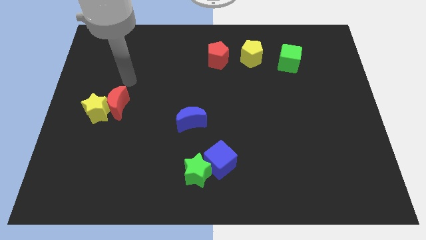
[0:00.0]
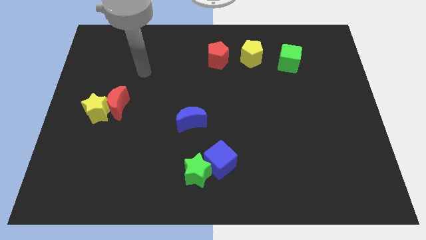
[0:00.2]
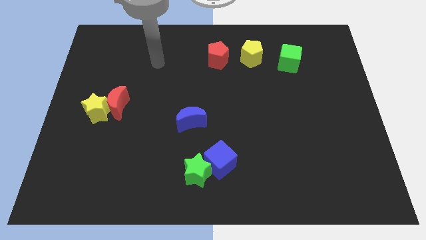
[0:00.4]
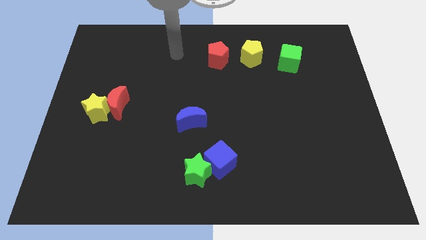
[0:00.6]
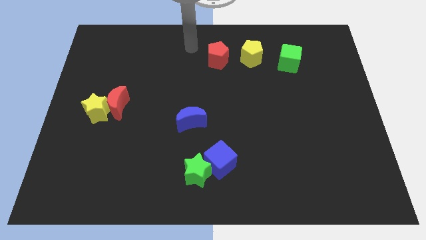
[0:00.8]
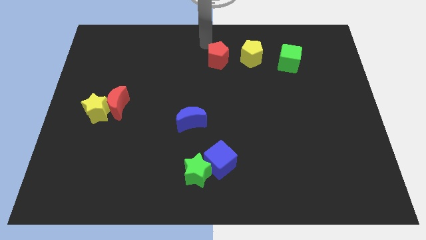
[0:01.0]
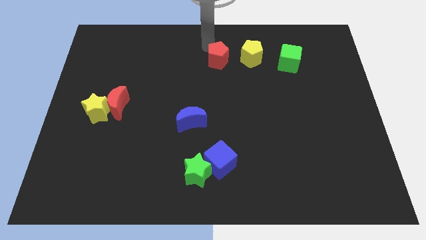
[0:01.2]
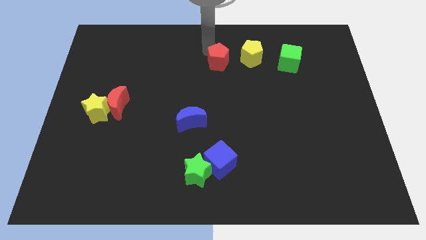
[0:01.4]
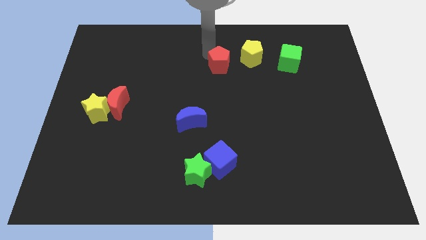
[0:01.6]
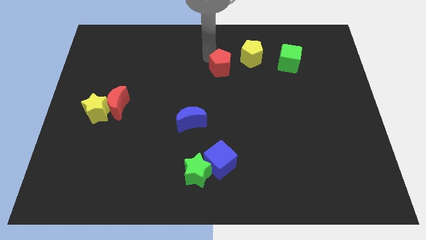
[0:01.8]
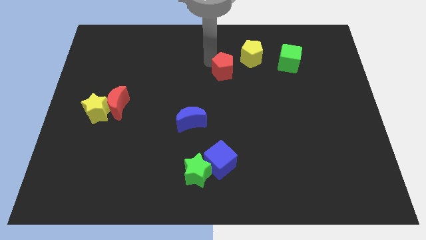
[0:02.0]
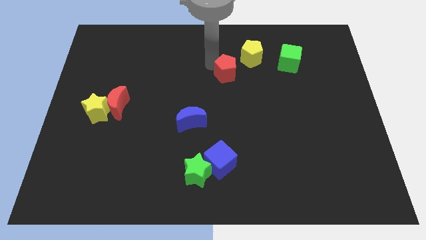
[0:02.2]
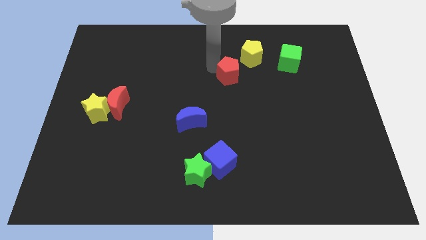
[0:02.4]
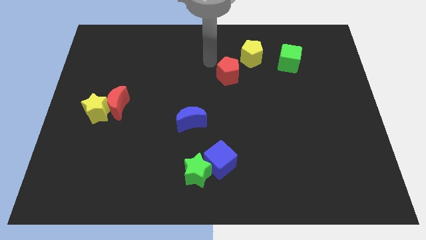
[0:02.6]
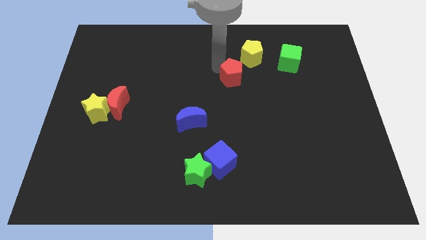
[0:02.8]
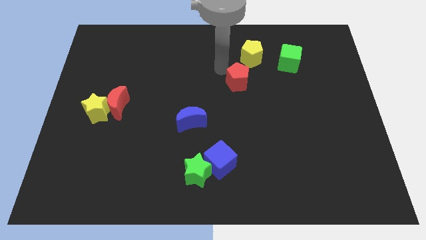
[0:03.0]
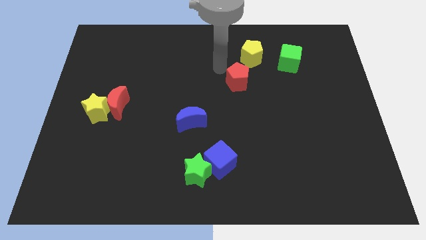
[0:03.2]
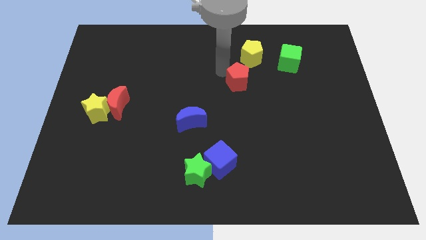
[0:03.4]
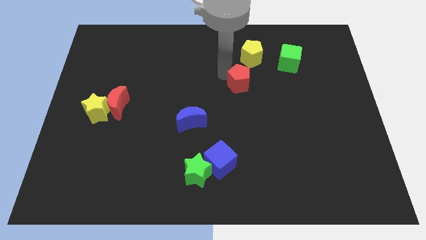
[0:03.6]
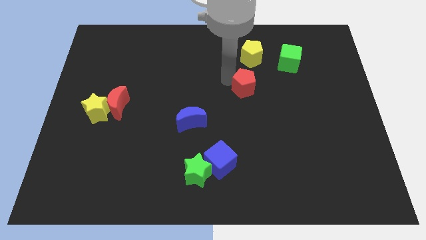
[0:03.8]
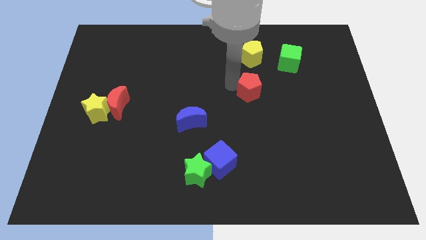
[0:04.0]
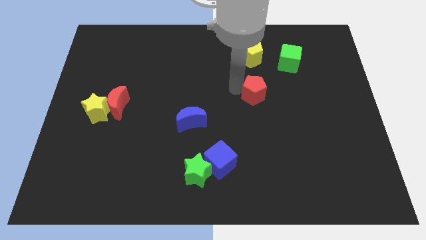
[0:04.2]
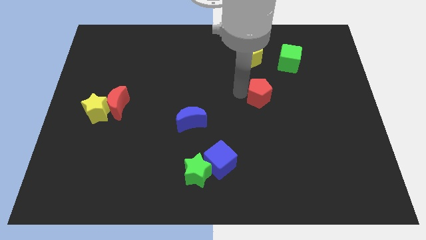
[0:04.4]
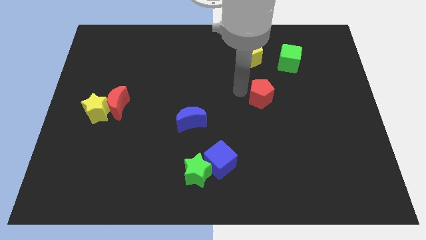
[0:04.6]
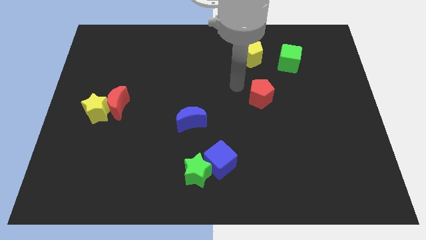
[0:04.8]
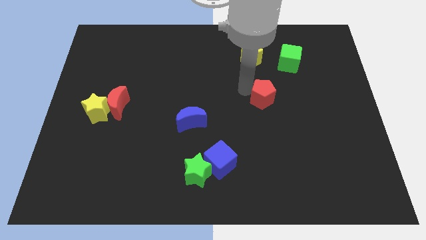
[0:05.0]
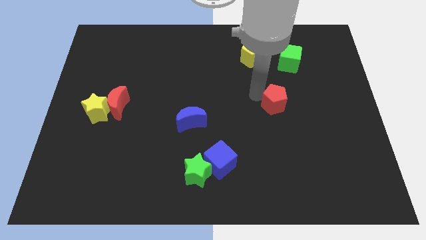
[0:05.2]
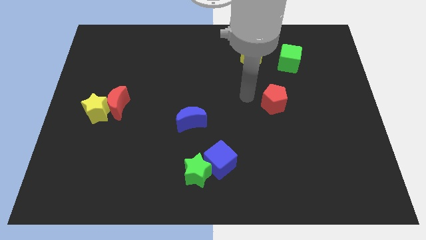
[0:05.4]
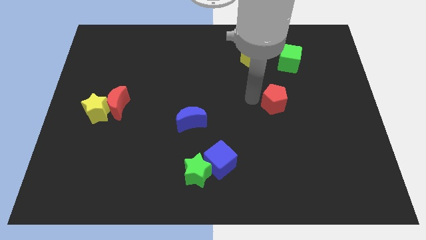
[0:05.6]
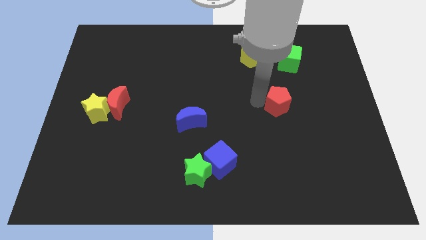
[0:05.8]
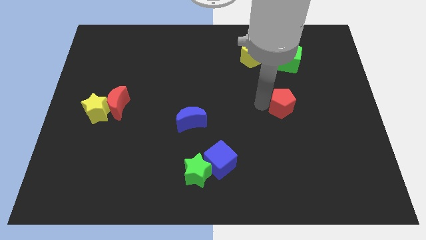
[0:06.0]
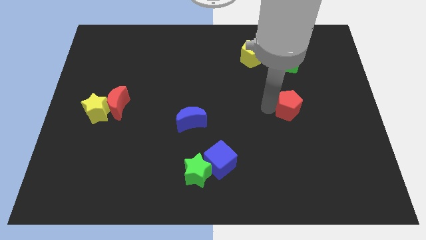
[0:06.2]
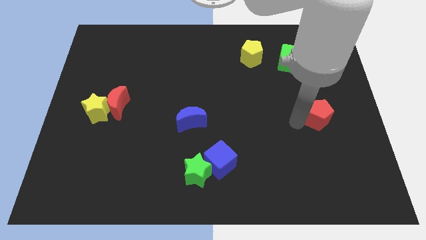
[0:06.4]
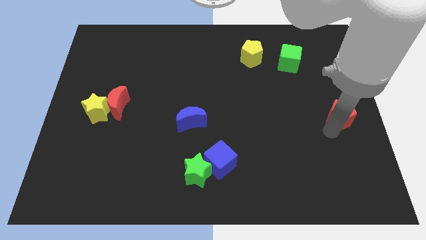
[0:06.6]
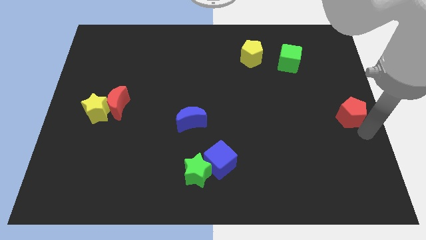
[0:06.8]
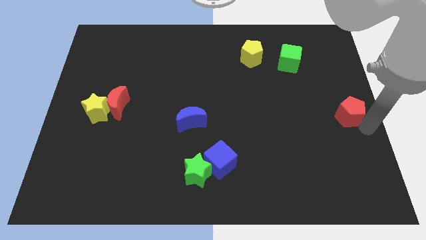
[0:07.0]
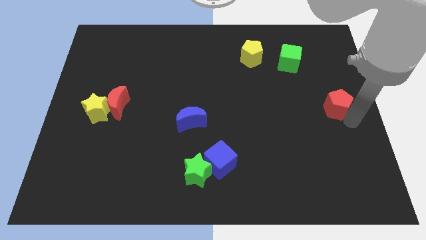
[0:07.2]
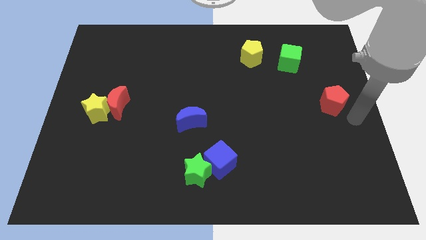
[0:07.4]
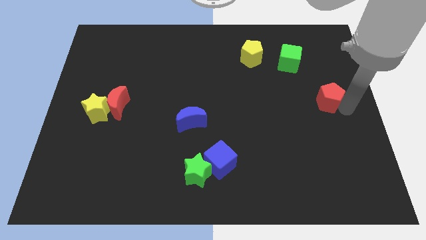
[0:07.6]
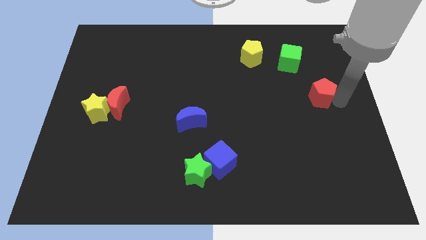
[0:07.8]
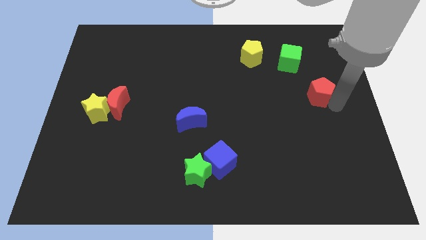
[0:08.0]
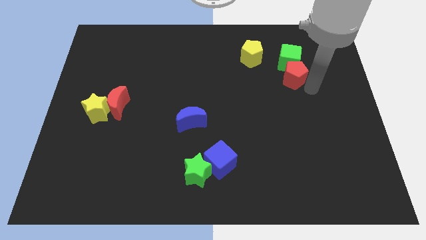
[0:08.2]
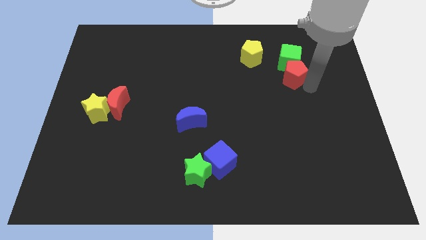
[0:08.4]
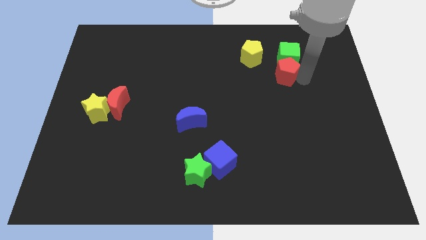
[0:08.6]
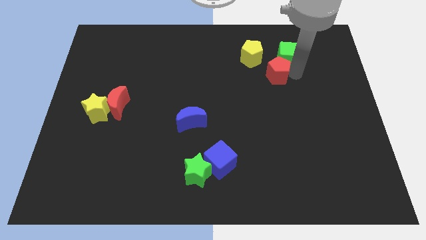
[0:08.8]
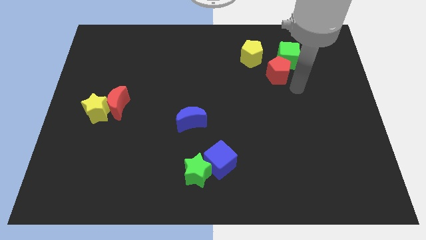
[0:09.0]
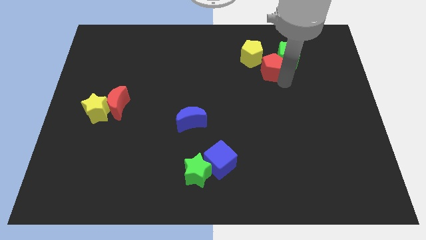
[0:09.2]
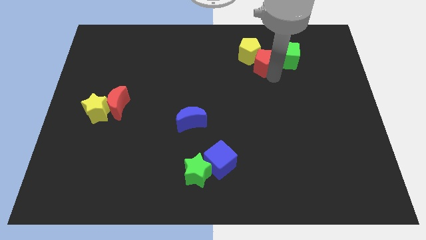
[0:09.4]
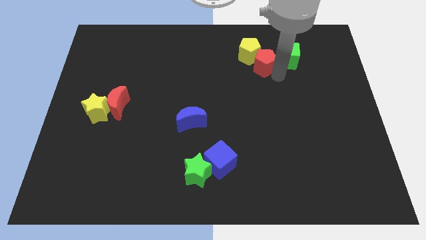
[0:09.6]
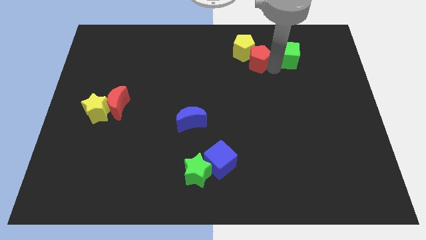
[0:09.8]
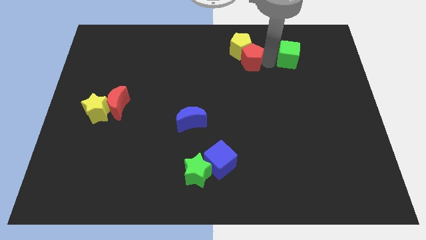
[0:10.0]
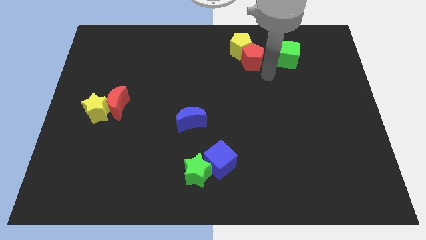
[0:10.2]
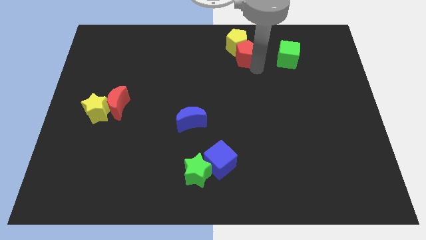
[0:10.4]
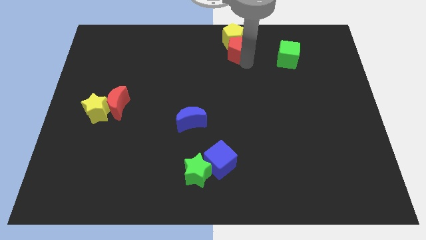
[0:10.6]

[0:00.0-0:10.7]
move the red pentagon to the towards your base

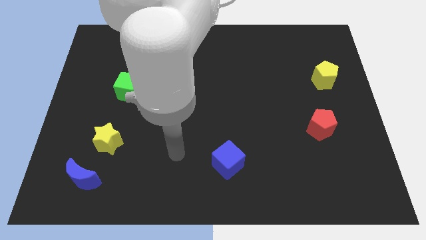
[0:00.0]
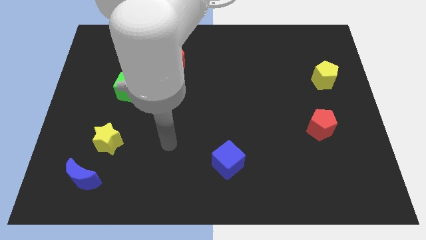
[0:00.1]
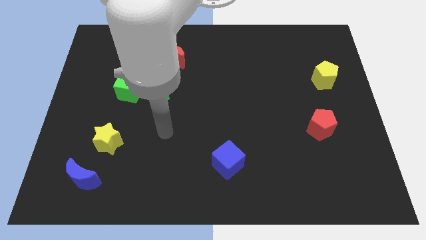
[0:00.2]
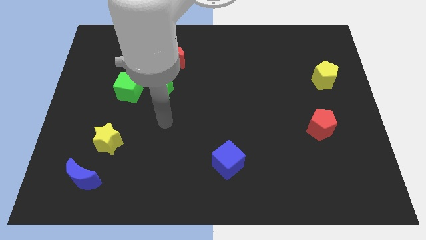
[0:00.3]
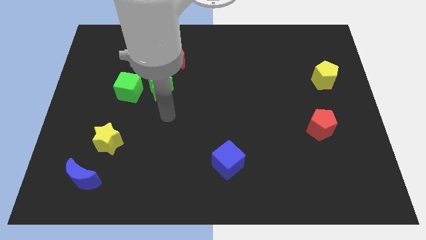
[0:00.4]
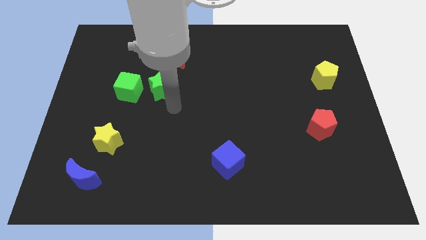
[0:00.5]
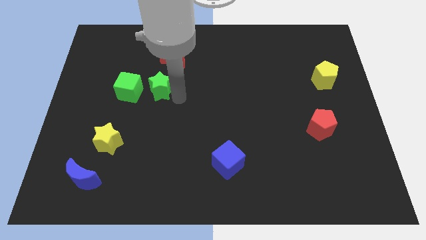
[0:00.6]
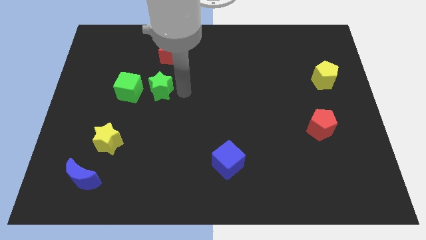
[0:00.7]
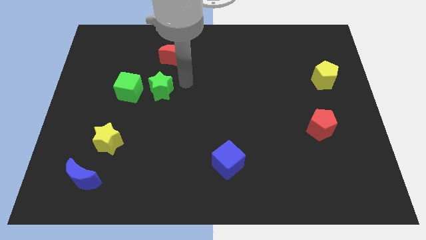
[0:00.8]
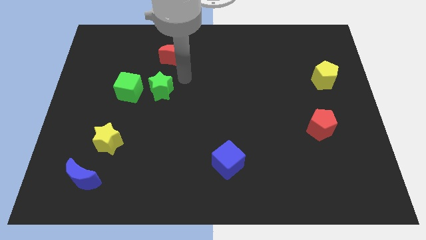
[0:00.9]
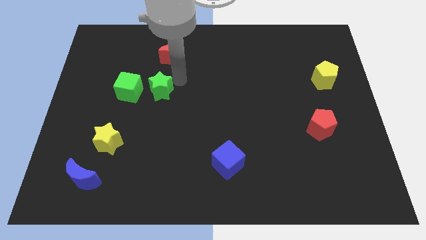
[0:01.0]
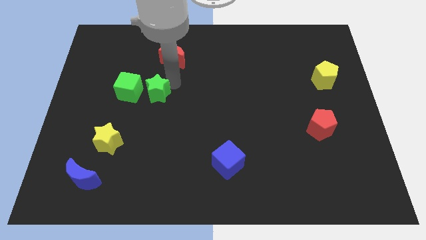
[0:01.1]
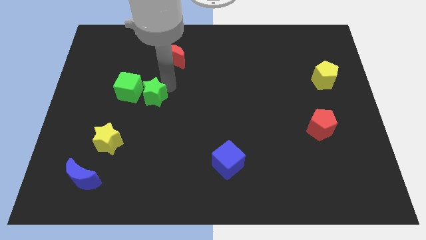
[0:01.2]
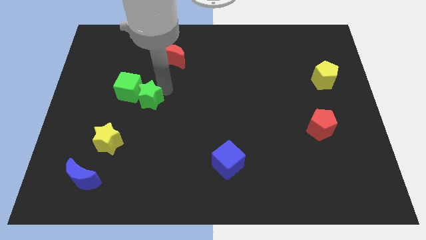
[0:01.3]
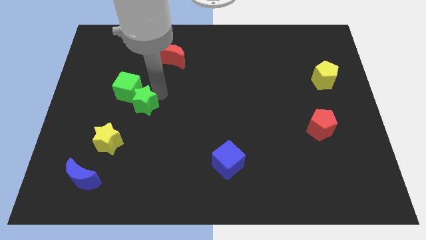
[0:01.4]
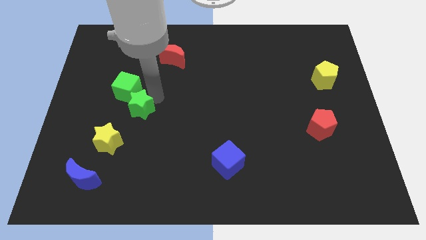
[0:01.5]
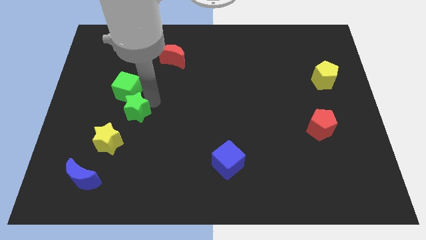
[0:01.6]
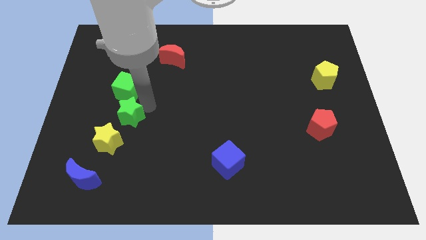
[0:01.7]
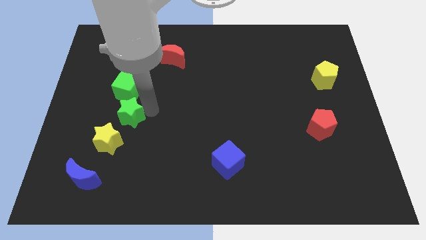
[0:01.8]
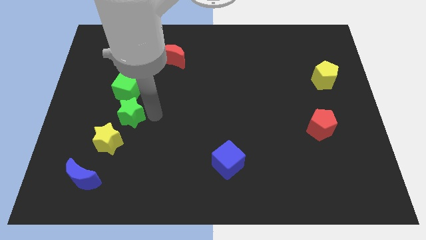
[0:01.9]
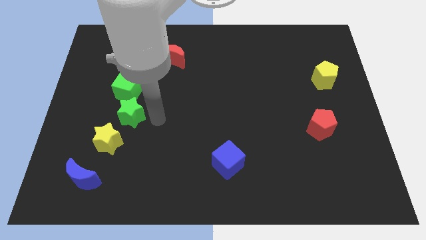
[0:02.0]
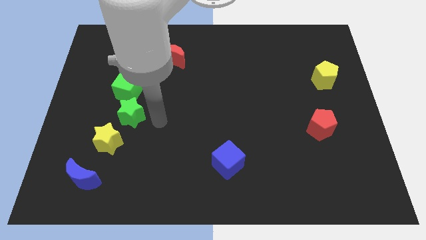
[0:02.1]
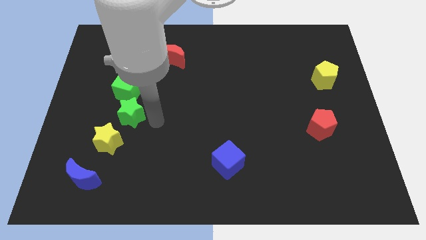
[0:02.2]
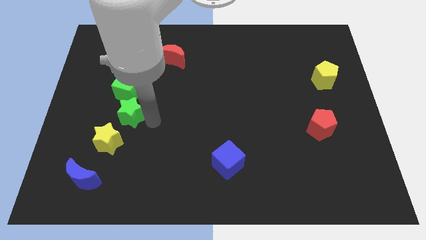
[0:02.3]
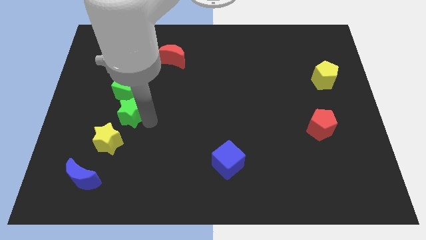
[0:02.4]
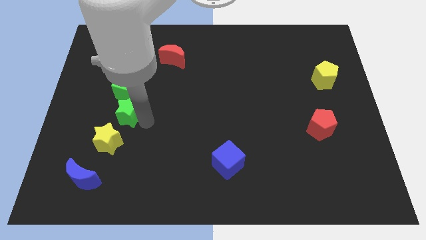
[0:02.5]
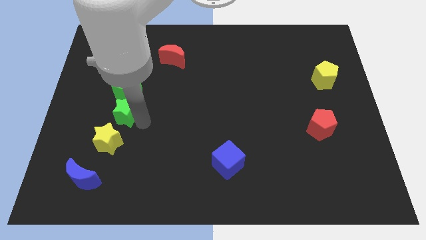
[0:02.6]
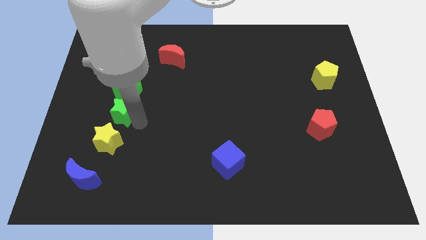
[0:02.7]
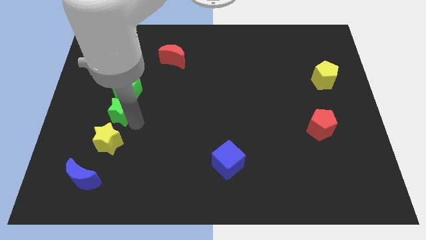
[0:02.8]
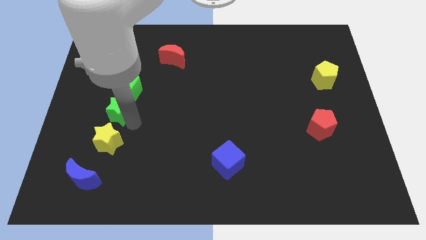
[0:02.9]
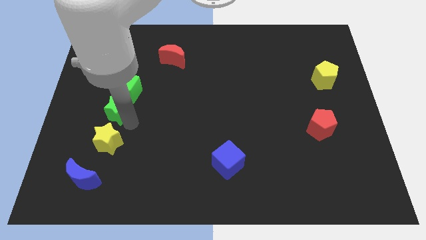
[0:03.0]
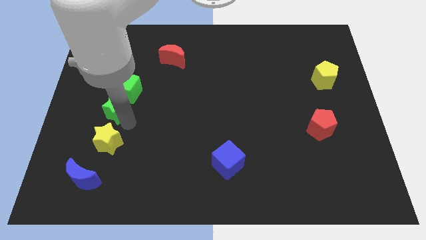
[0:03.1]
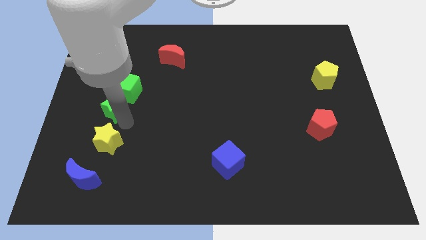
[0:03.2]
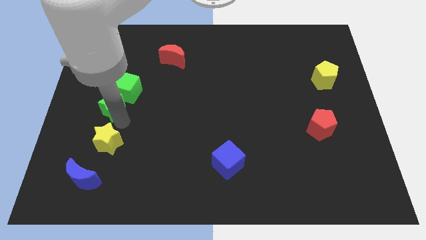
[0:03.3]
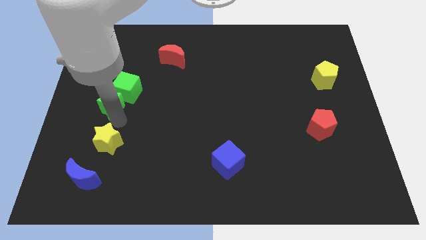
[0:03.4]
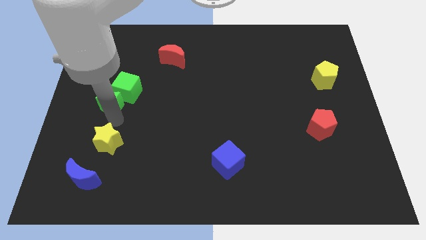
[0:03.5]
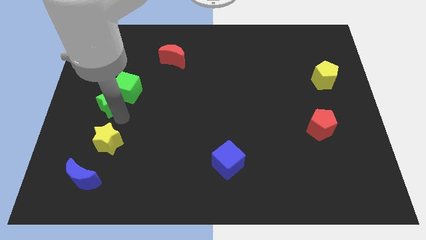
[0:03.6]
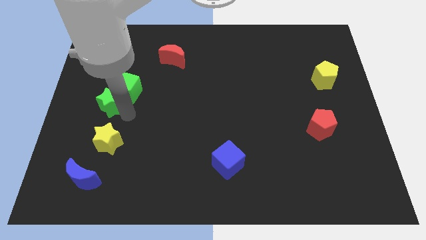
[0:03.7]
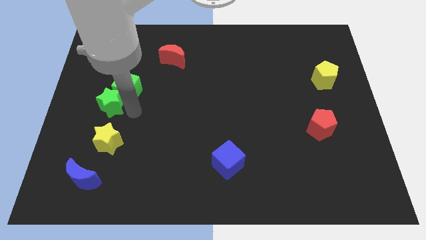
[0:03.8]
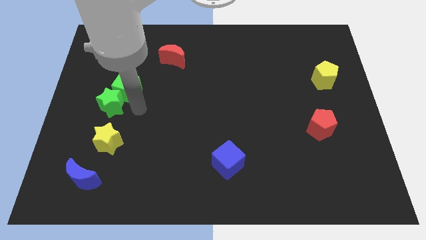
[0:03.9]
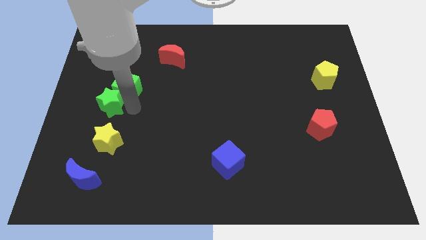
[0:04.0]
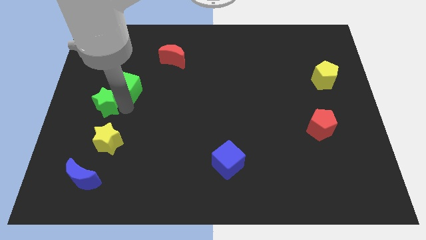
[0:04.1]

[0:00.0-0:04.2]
slide the green star to the center left
